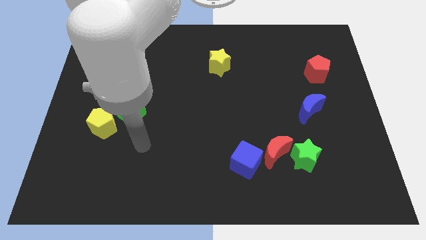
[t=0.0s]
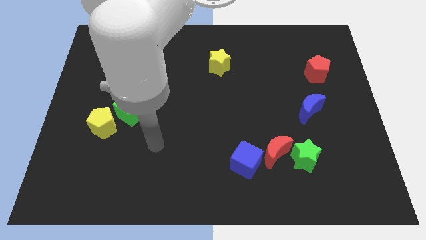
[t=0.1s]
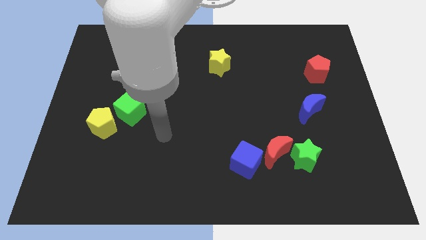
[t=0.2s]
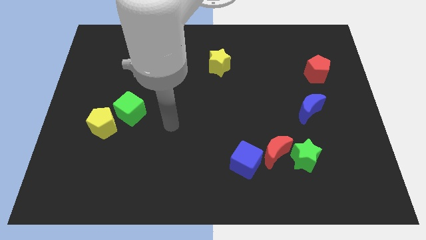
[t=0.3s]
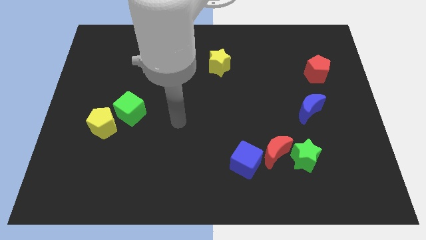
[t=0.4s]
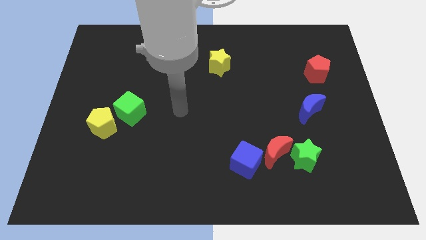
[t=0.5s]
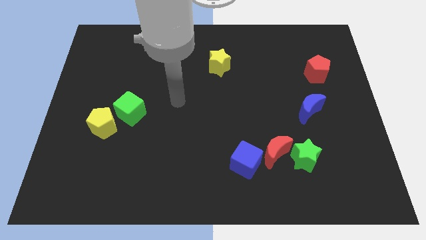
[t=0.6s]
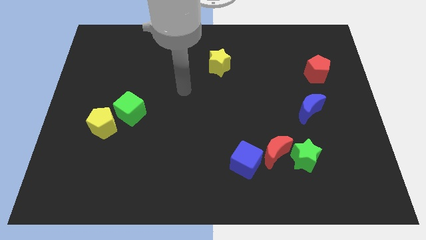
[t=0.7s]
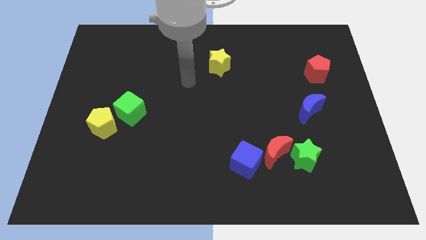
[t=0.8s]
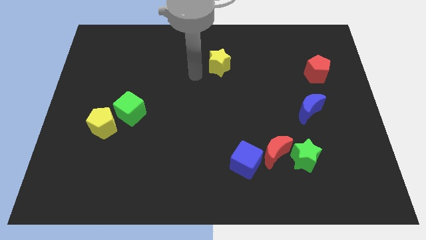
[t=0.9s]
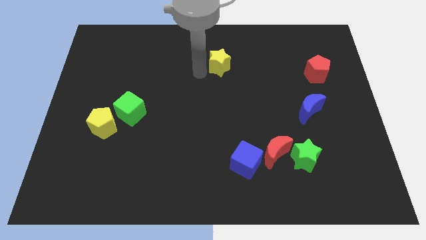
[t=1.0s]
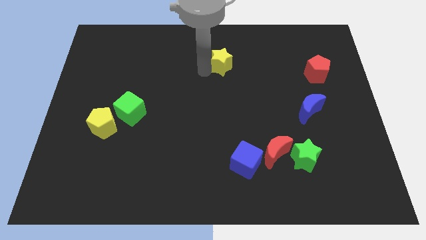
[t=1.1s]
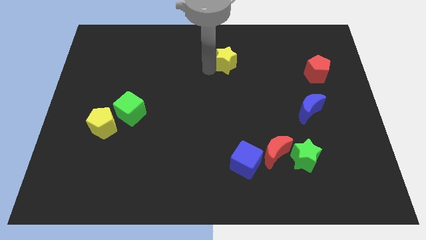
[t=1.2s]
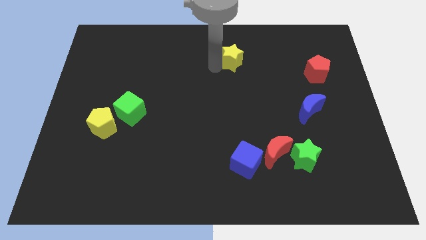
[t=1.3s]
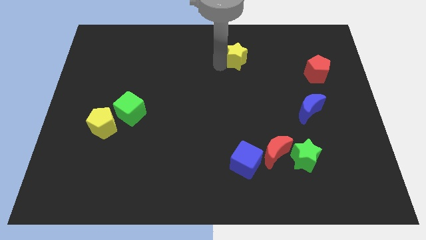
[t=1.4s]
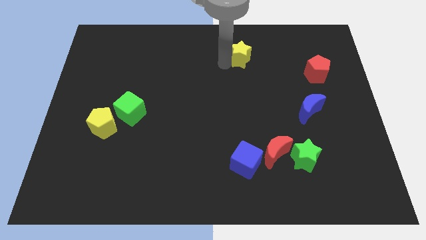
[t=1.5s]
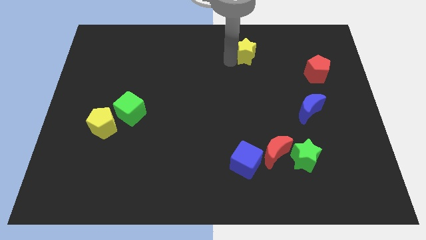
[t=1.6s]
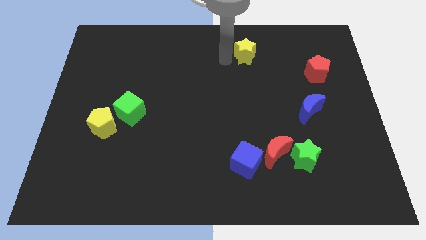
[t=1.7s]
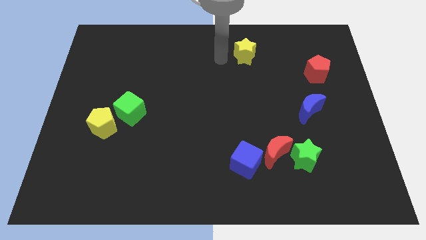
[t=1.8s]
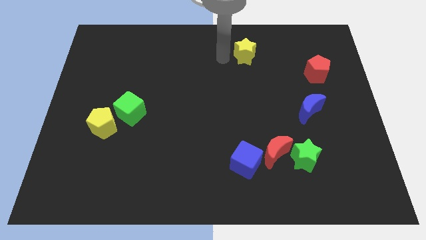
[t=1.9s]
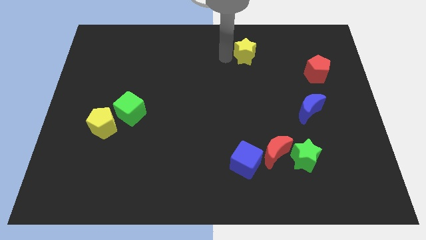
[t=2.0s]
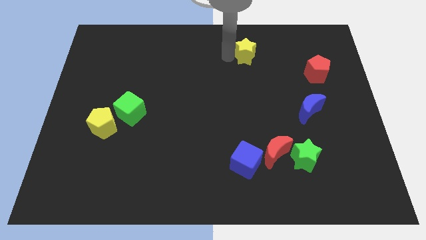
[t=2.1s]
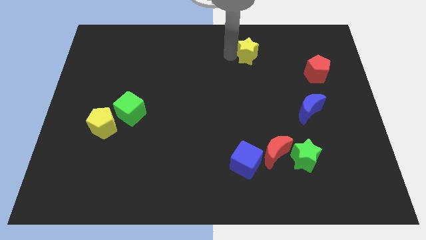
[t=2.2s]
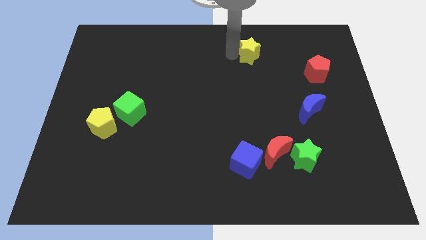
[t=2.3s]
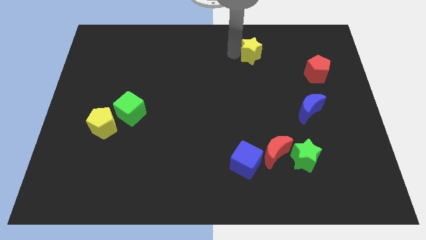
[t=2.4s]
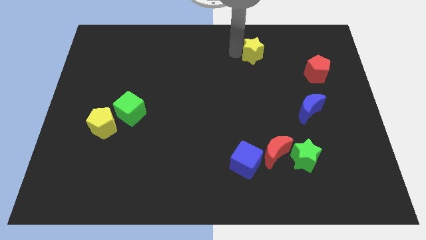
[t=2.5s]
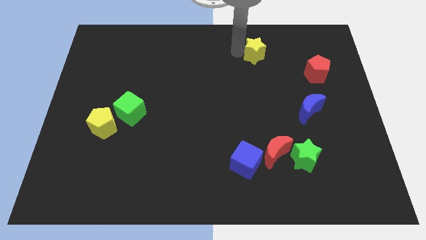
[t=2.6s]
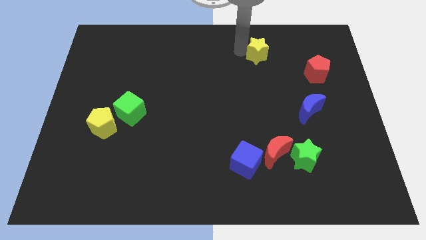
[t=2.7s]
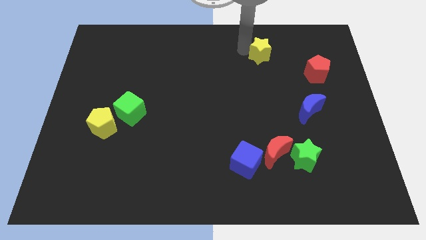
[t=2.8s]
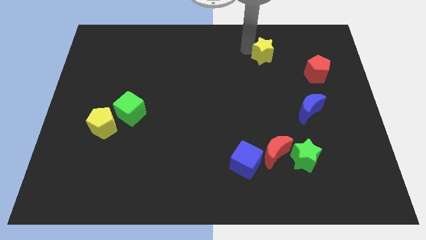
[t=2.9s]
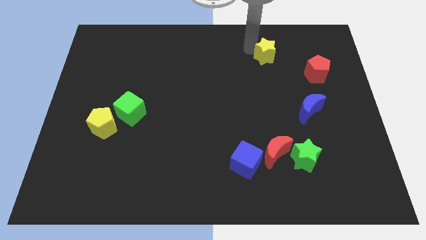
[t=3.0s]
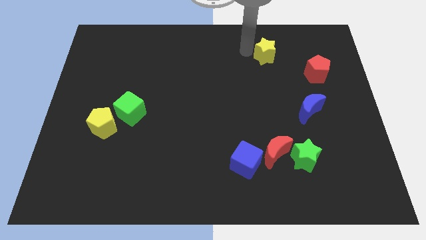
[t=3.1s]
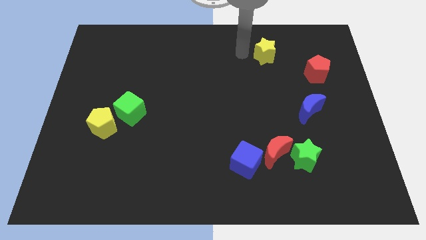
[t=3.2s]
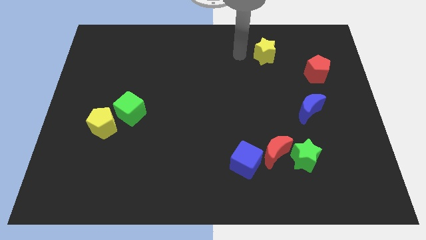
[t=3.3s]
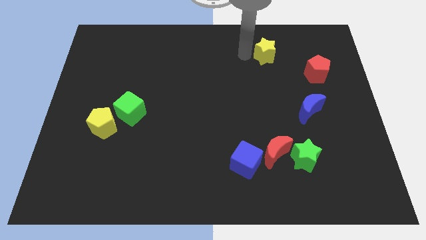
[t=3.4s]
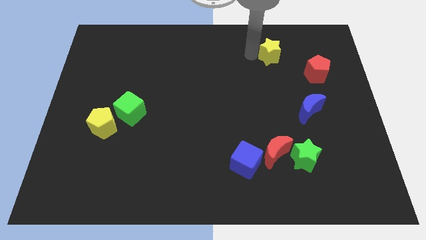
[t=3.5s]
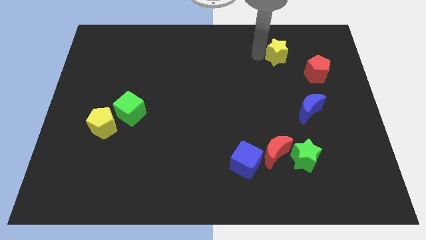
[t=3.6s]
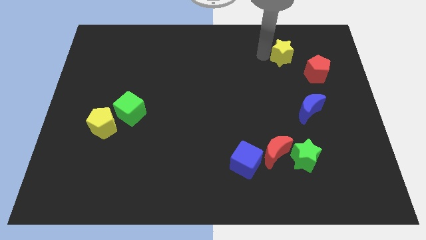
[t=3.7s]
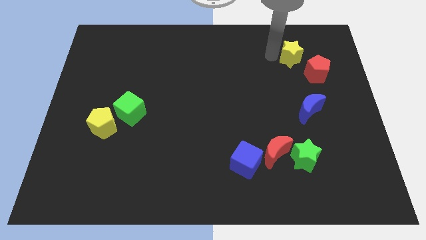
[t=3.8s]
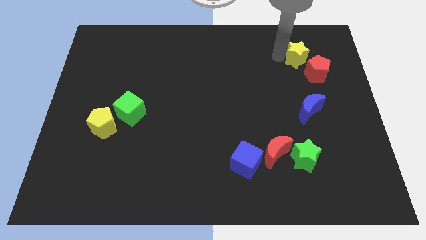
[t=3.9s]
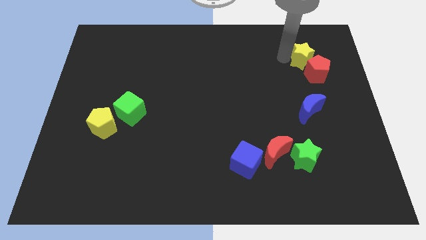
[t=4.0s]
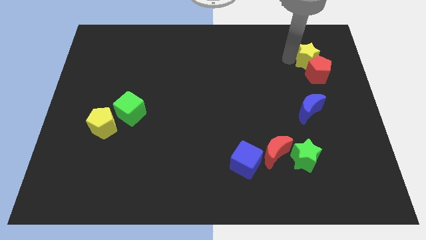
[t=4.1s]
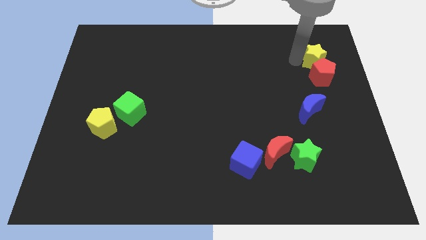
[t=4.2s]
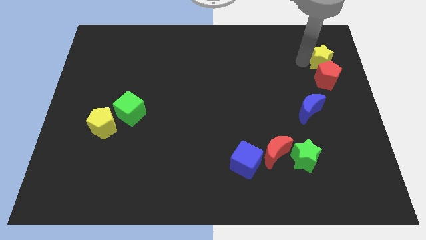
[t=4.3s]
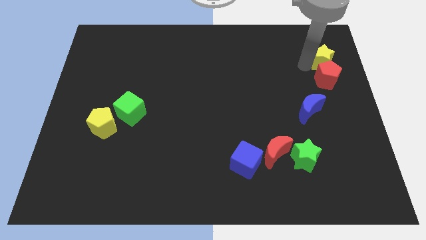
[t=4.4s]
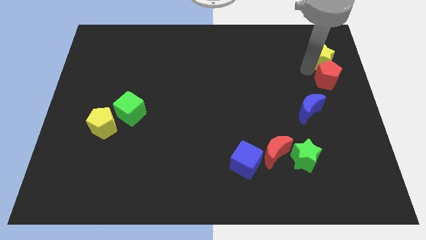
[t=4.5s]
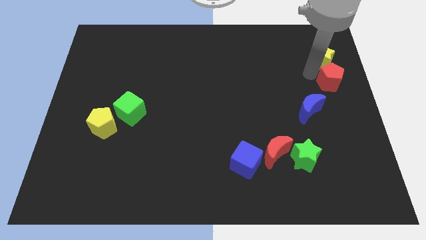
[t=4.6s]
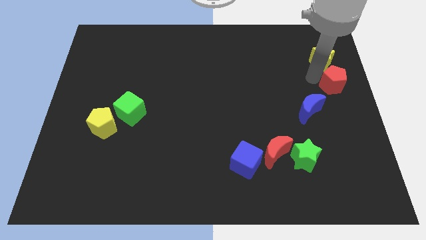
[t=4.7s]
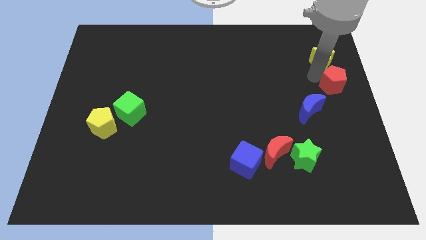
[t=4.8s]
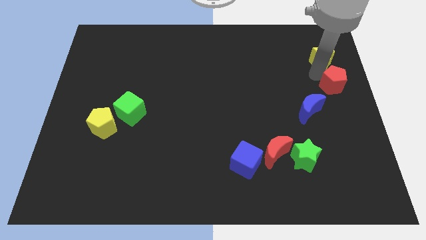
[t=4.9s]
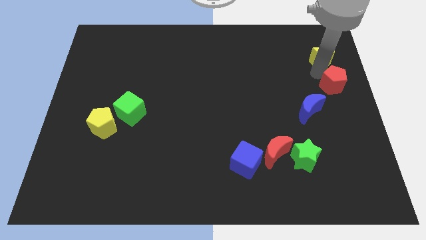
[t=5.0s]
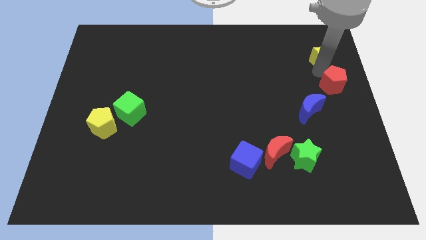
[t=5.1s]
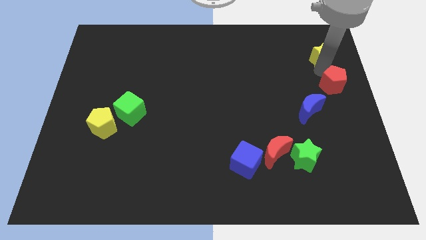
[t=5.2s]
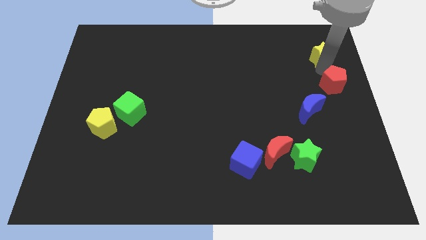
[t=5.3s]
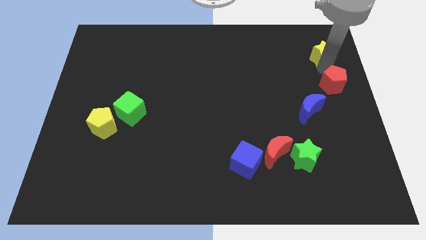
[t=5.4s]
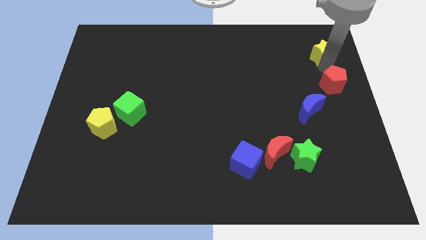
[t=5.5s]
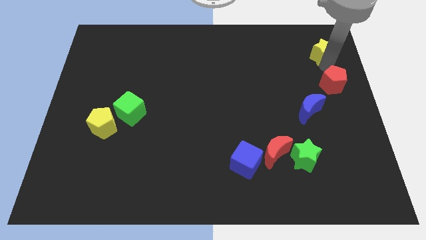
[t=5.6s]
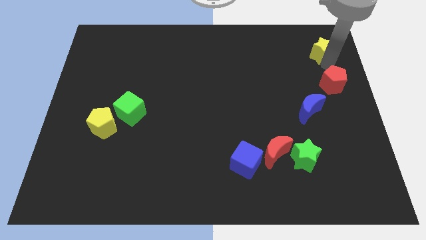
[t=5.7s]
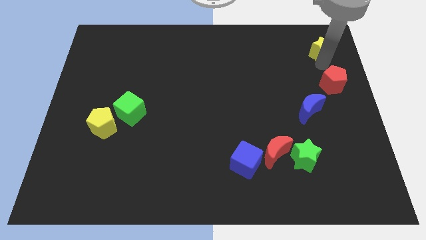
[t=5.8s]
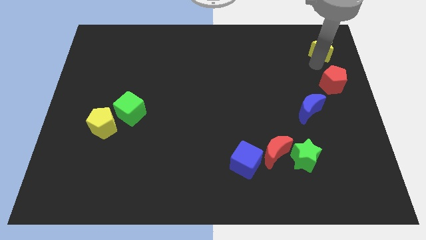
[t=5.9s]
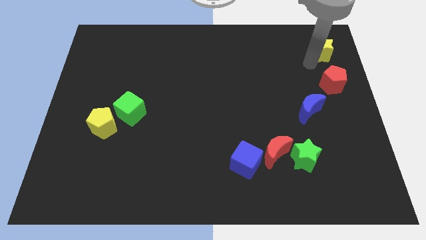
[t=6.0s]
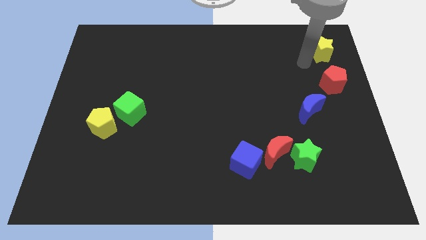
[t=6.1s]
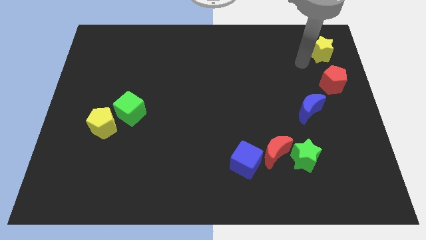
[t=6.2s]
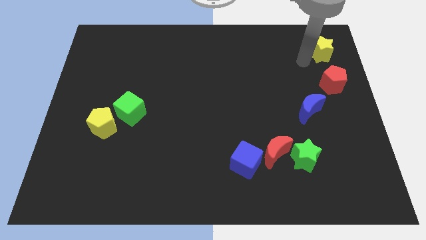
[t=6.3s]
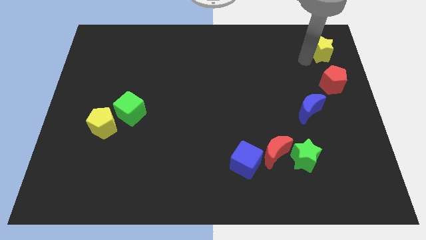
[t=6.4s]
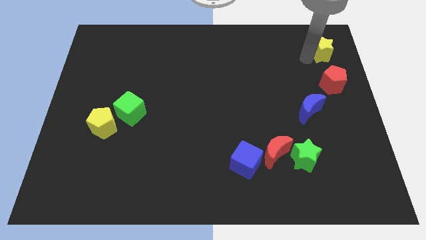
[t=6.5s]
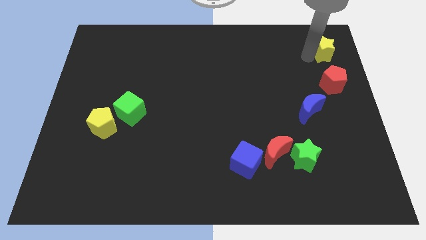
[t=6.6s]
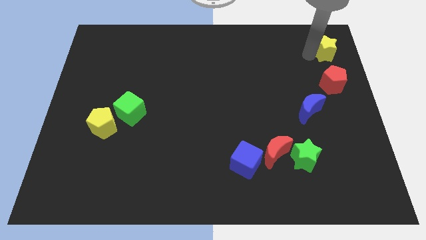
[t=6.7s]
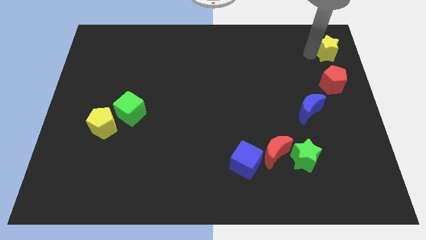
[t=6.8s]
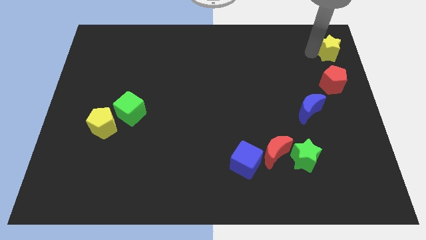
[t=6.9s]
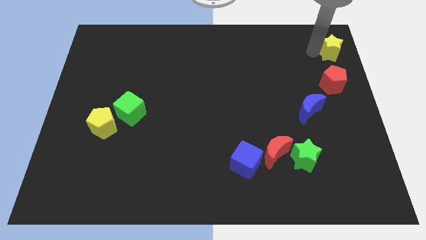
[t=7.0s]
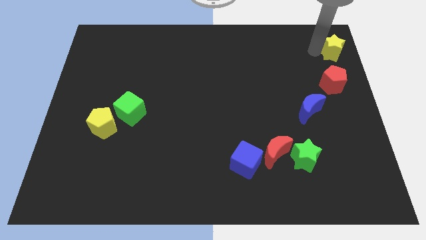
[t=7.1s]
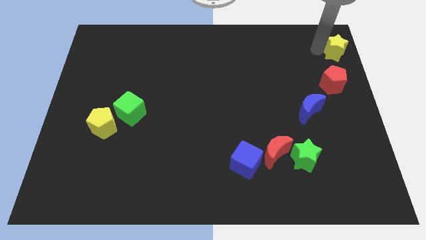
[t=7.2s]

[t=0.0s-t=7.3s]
move the yellow star to the top right
